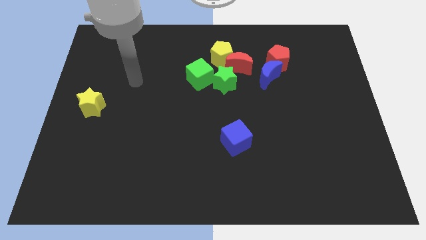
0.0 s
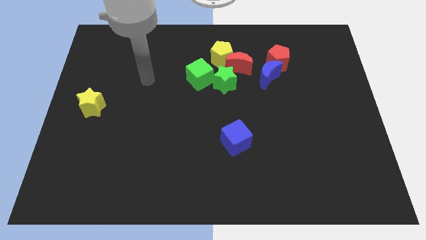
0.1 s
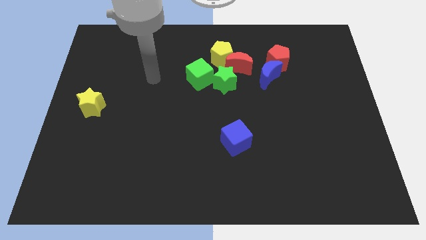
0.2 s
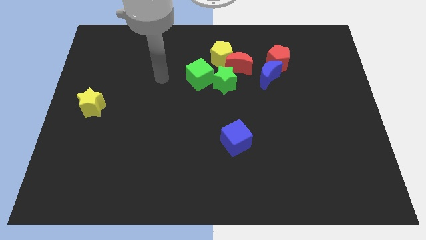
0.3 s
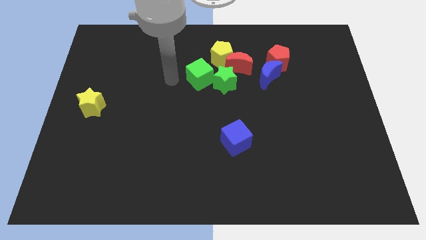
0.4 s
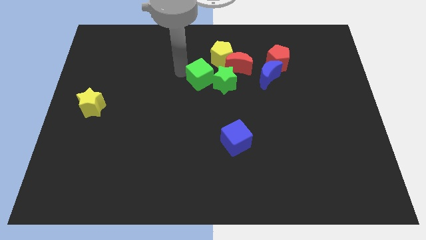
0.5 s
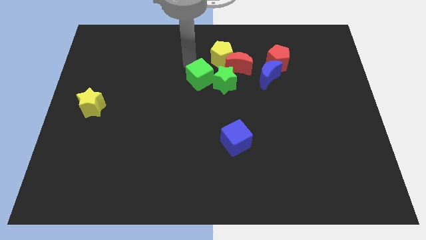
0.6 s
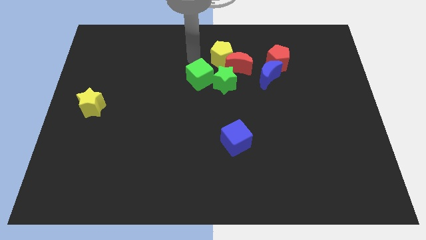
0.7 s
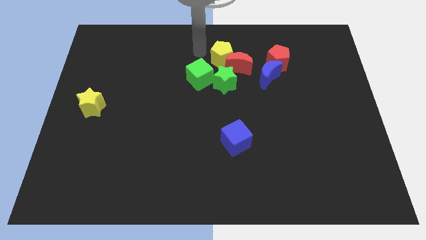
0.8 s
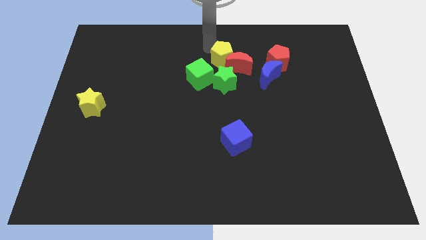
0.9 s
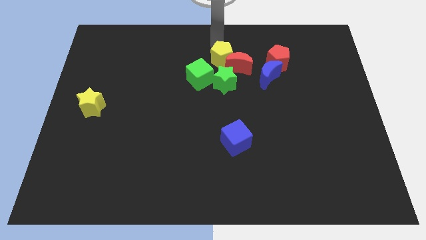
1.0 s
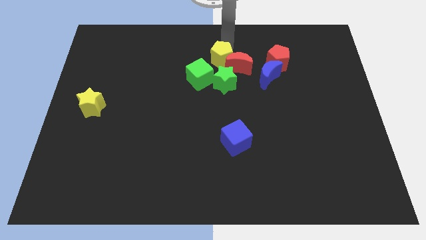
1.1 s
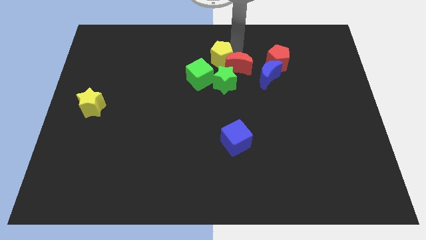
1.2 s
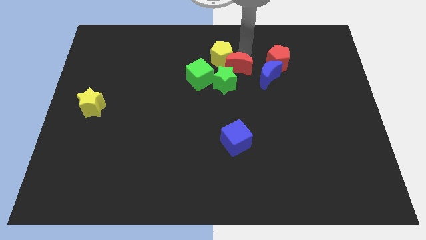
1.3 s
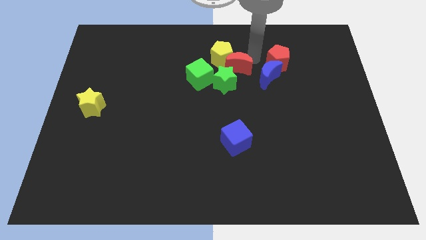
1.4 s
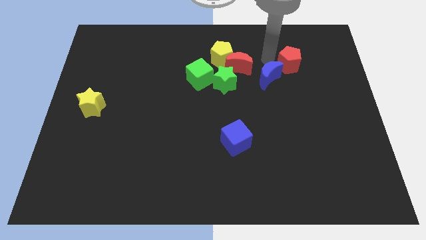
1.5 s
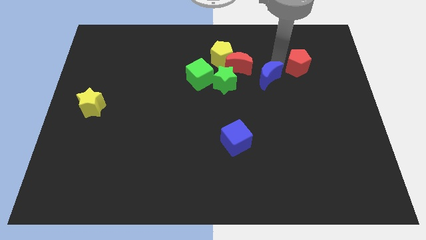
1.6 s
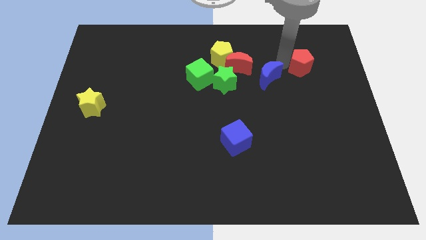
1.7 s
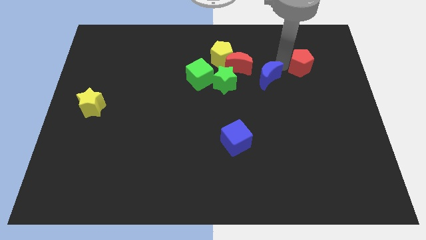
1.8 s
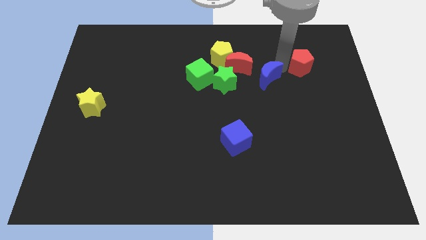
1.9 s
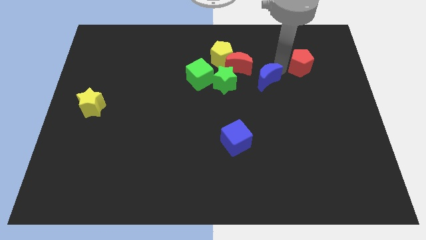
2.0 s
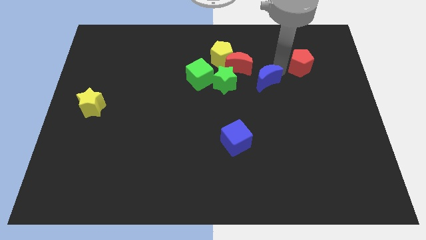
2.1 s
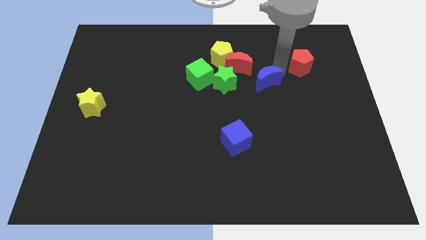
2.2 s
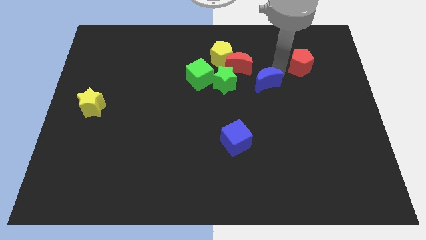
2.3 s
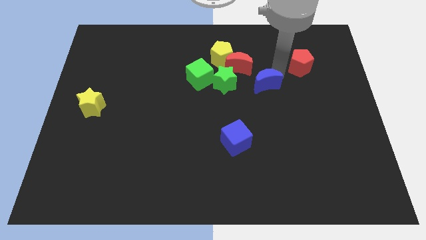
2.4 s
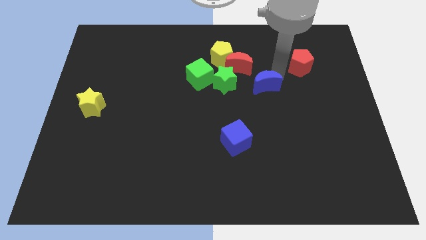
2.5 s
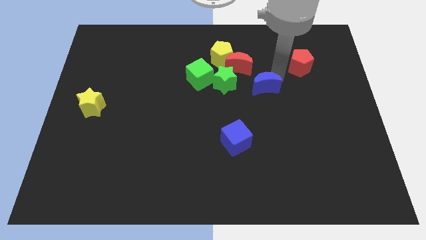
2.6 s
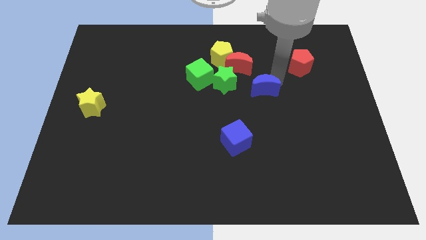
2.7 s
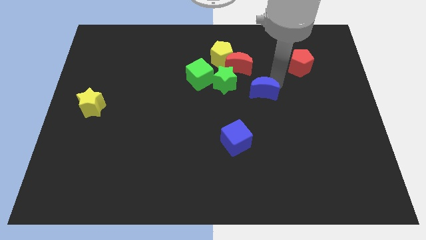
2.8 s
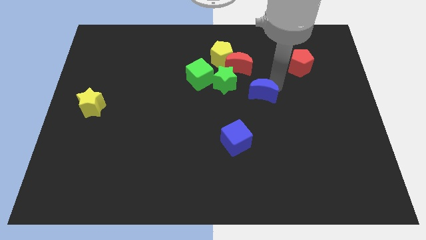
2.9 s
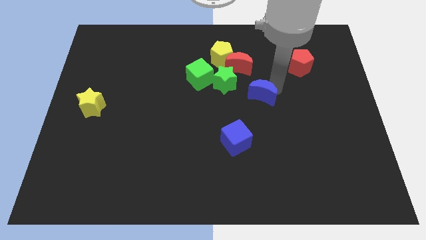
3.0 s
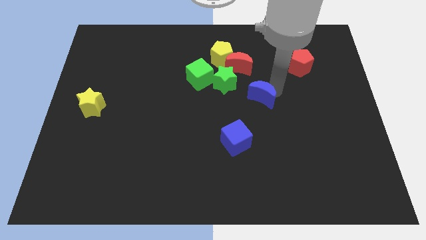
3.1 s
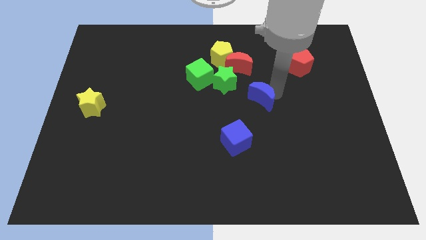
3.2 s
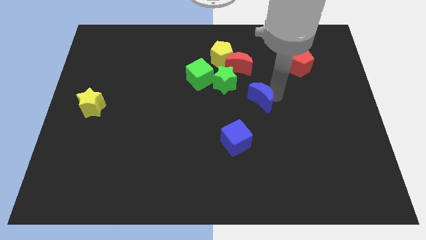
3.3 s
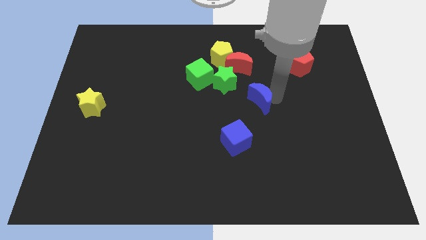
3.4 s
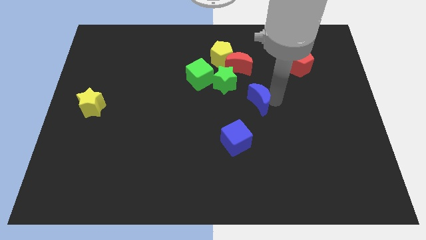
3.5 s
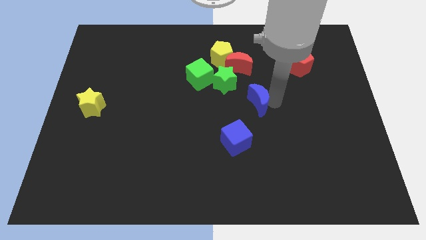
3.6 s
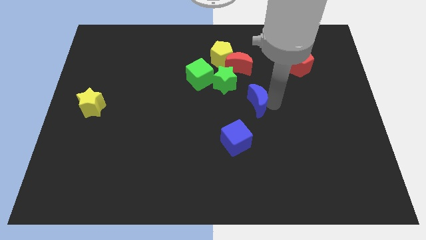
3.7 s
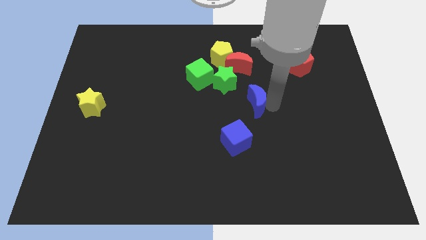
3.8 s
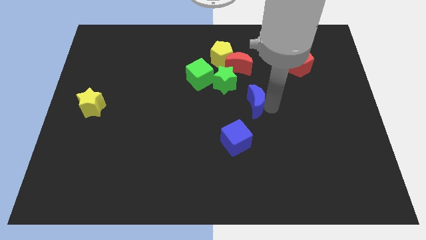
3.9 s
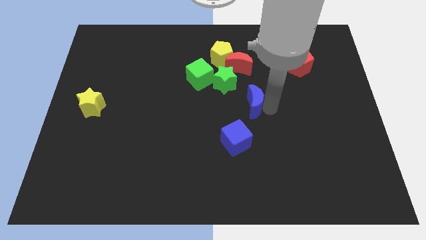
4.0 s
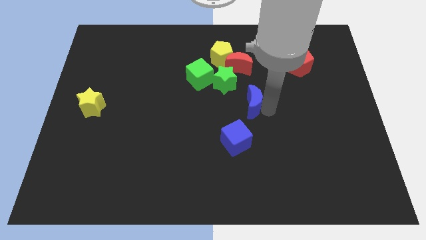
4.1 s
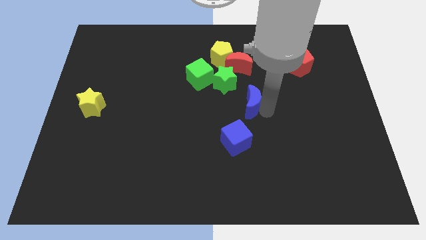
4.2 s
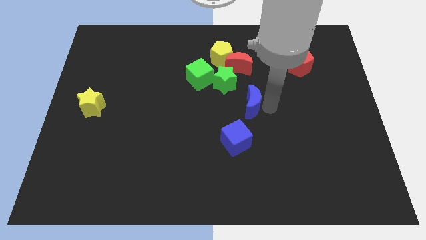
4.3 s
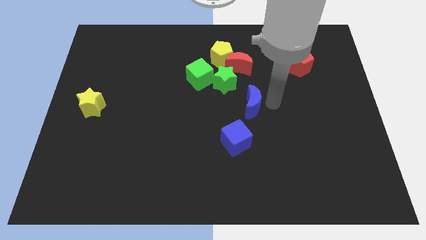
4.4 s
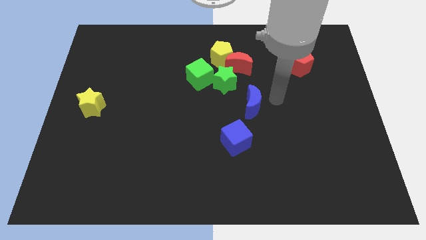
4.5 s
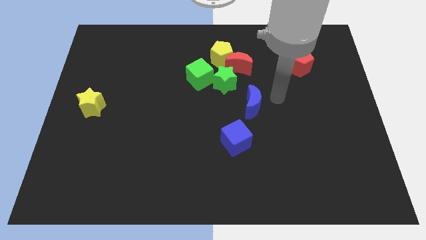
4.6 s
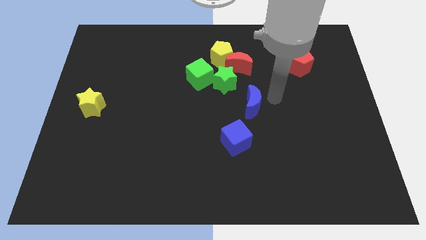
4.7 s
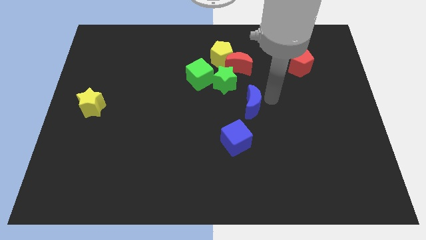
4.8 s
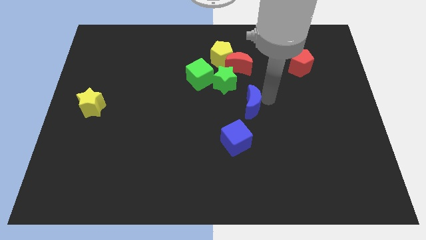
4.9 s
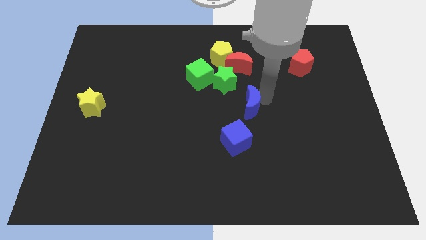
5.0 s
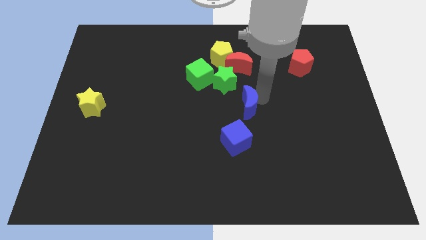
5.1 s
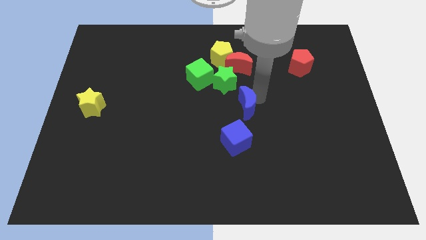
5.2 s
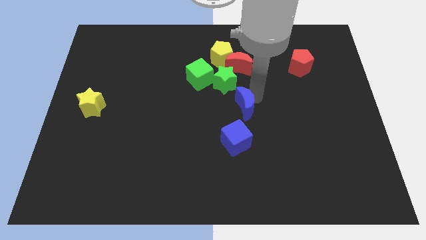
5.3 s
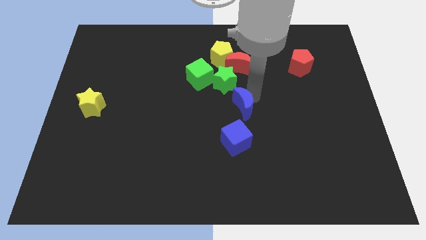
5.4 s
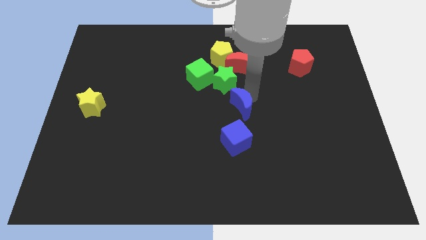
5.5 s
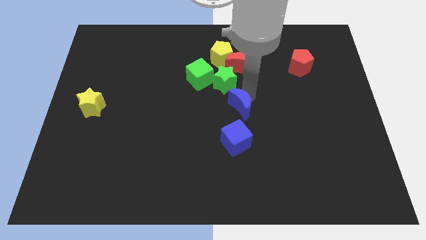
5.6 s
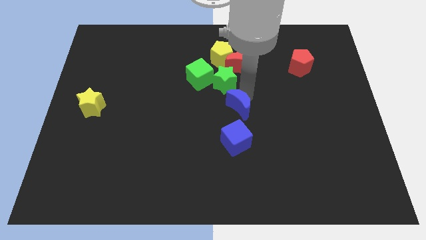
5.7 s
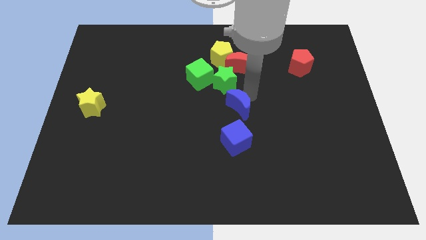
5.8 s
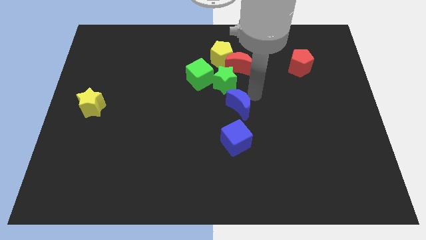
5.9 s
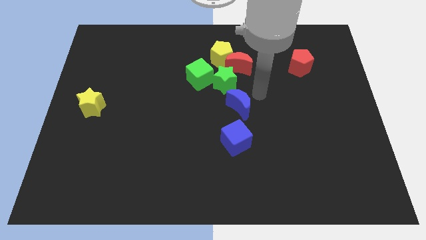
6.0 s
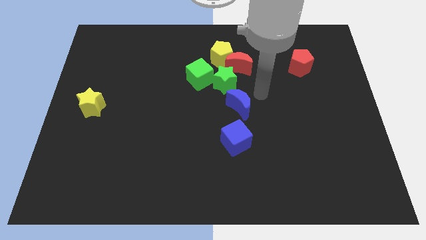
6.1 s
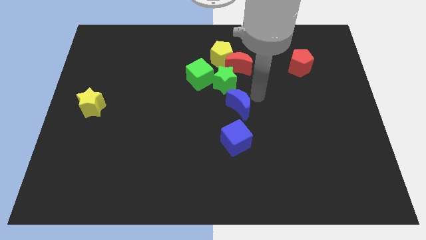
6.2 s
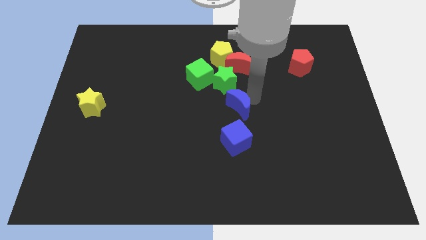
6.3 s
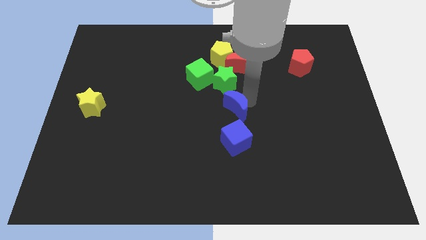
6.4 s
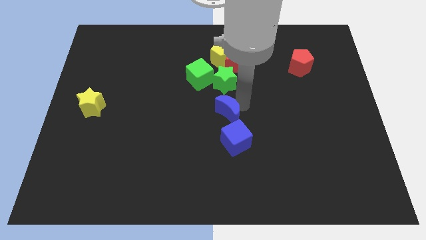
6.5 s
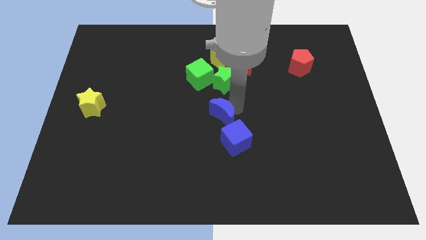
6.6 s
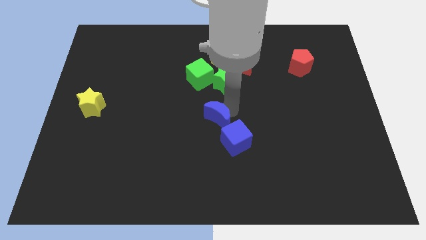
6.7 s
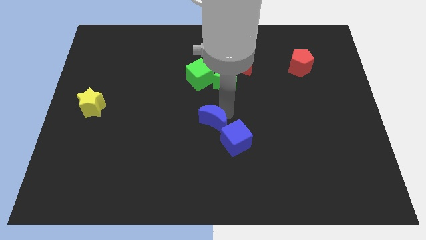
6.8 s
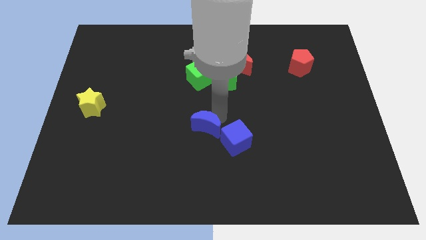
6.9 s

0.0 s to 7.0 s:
slide the blue moon downwards and then to the left

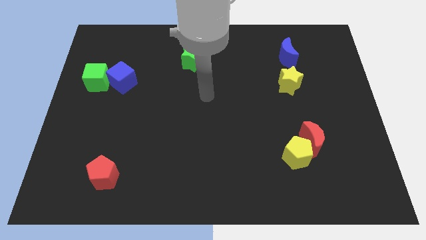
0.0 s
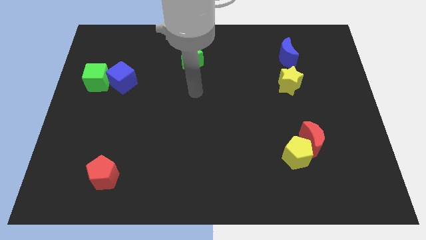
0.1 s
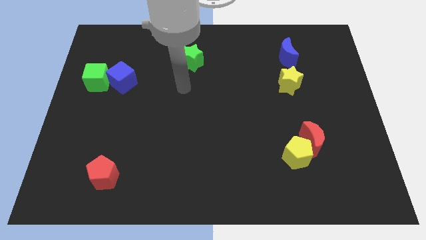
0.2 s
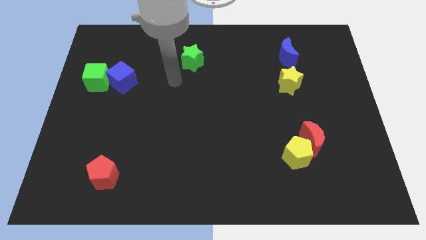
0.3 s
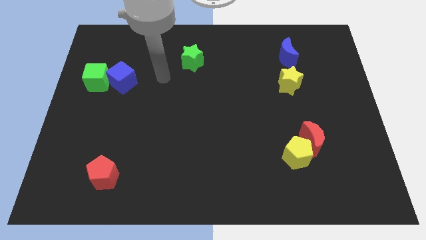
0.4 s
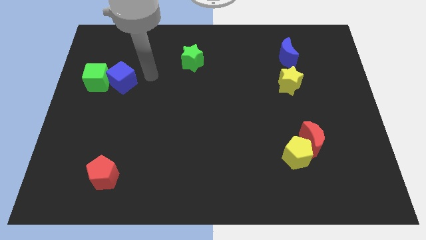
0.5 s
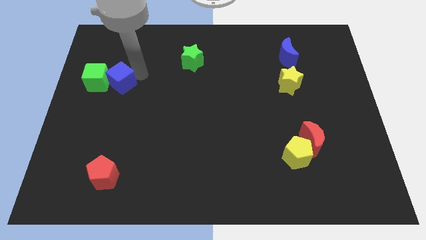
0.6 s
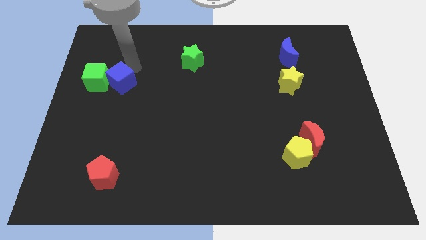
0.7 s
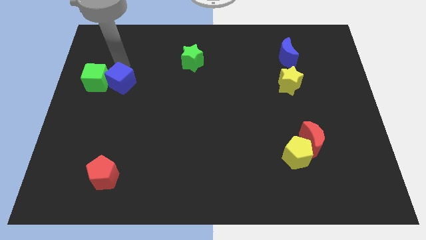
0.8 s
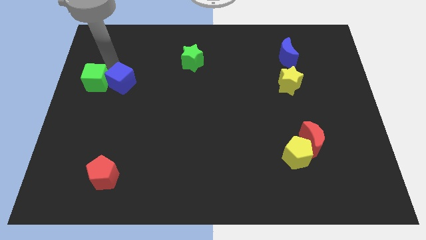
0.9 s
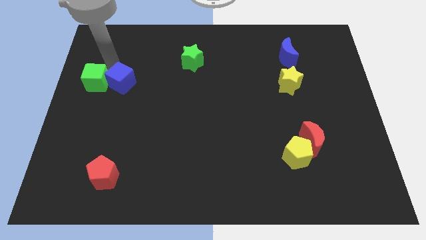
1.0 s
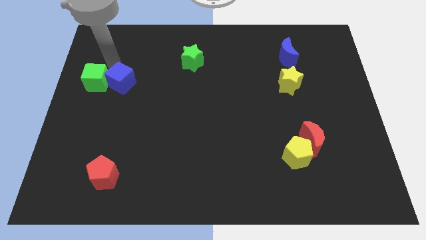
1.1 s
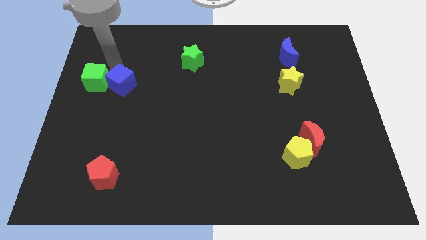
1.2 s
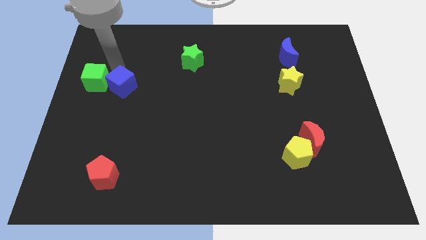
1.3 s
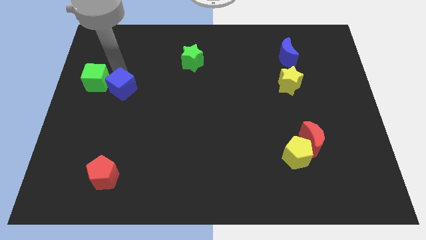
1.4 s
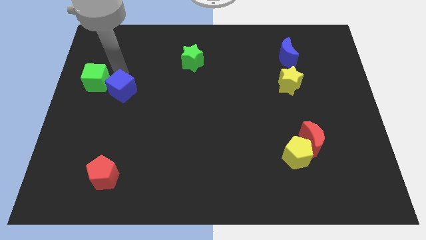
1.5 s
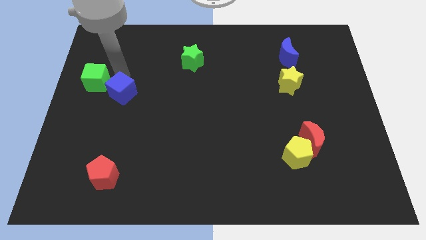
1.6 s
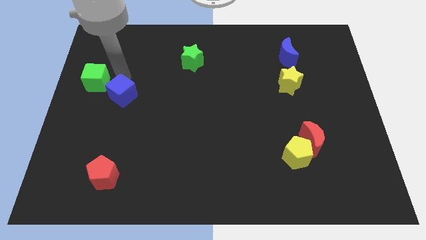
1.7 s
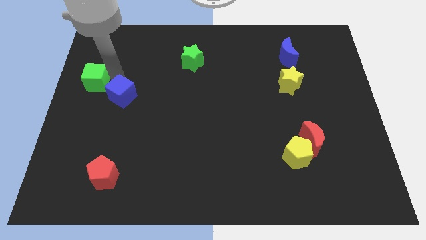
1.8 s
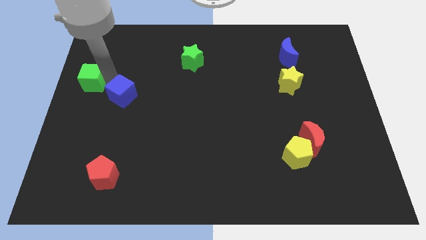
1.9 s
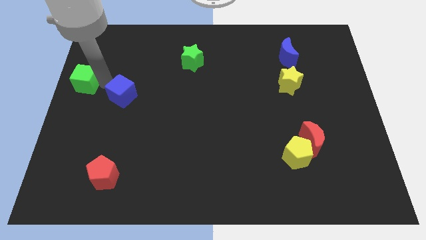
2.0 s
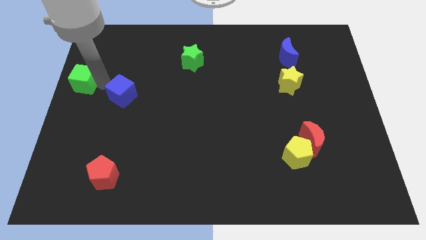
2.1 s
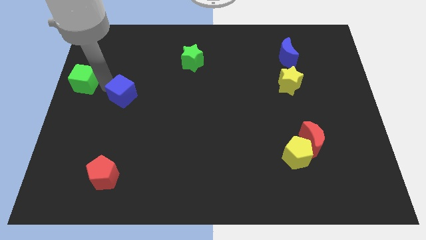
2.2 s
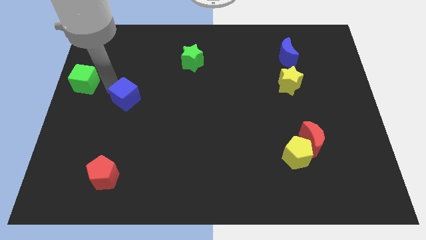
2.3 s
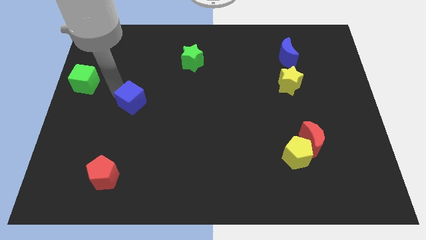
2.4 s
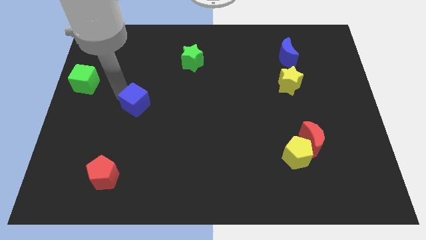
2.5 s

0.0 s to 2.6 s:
slide the blue cube somewhat downwards and to the right diagonally
